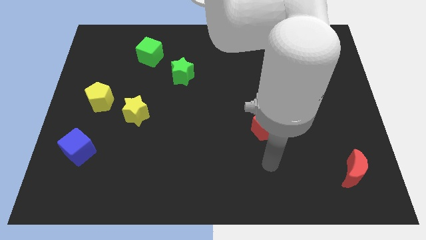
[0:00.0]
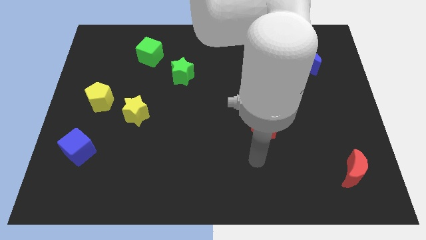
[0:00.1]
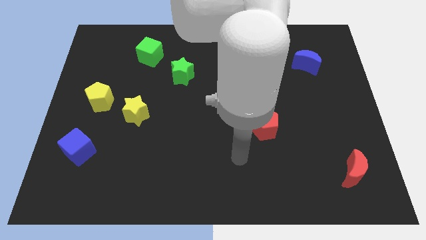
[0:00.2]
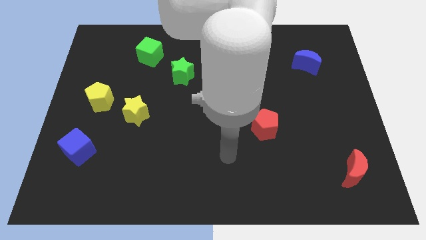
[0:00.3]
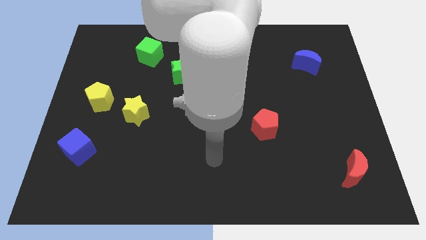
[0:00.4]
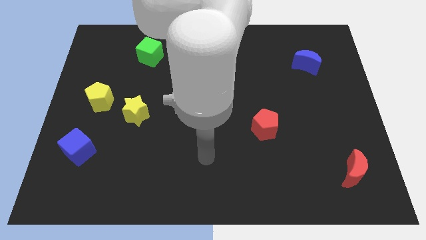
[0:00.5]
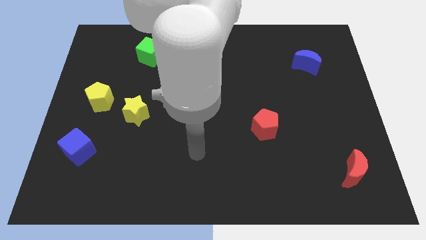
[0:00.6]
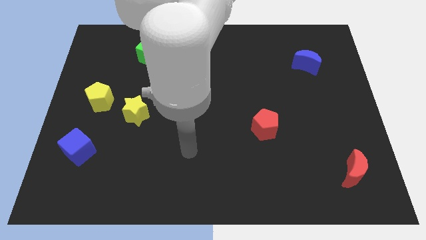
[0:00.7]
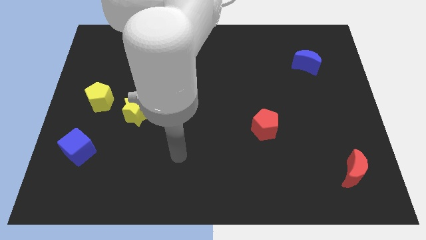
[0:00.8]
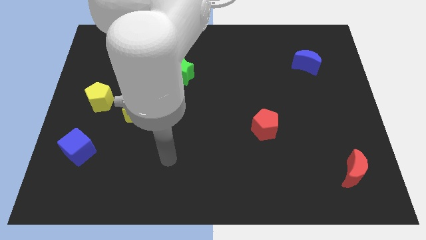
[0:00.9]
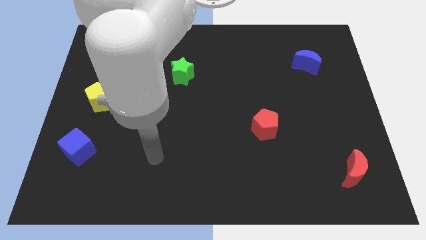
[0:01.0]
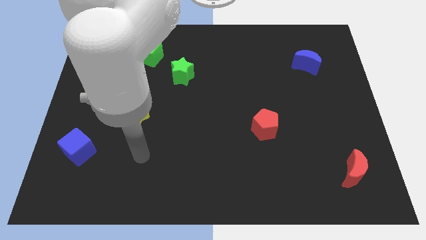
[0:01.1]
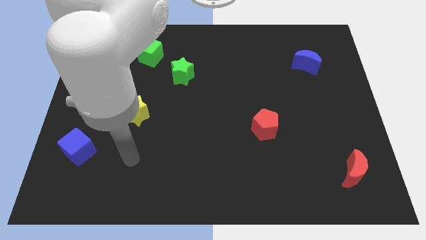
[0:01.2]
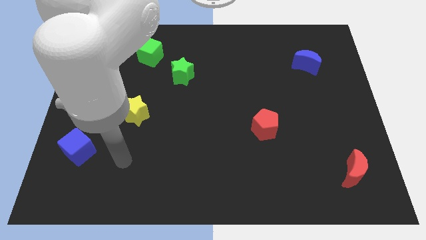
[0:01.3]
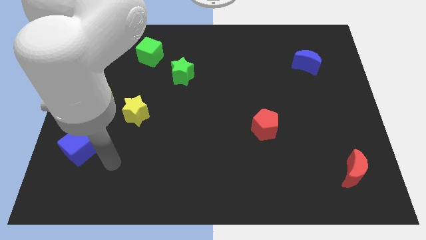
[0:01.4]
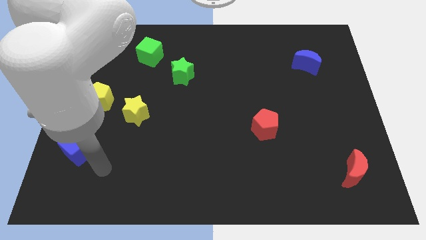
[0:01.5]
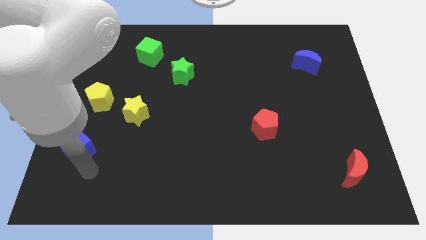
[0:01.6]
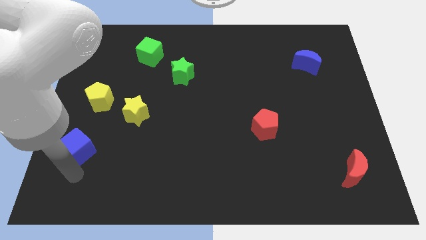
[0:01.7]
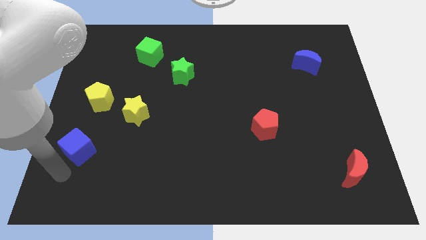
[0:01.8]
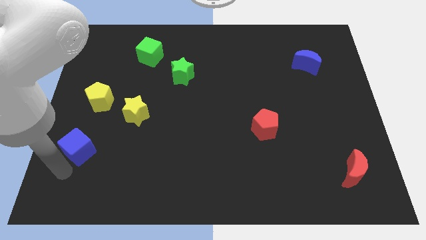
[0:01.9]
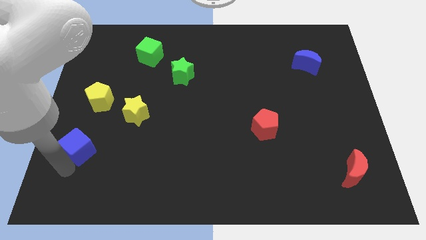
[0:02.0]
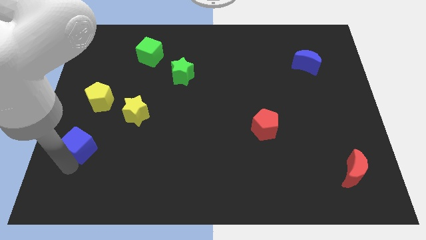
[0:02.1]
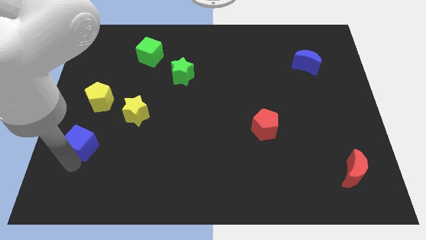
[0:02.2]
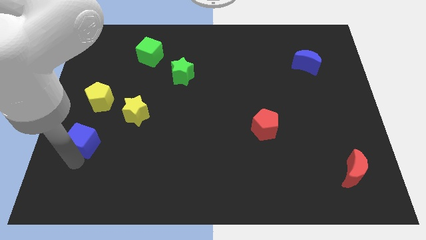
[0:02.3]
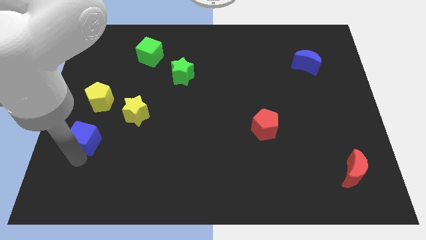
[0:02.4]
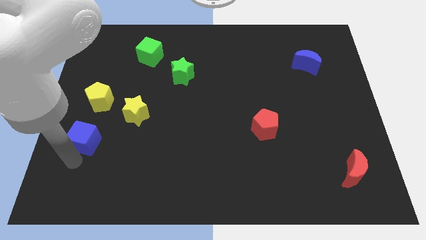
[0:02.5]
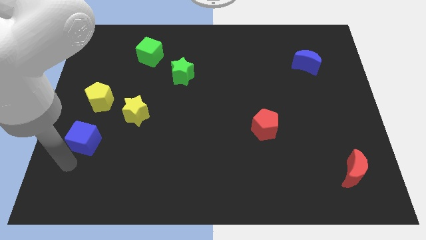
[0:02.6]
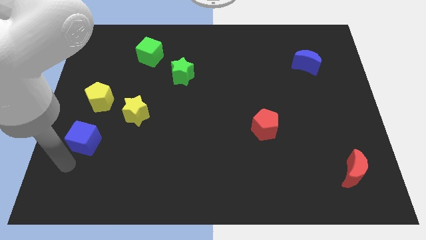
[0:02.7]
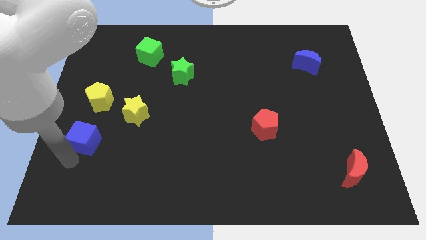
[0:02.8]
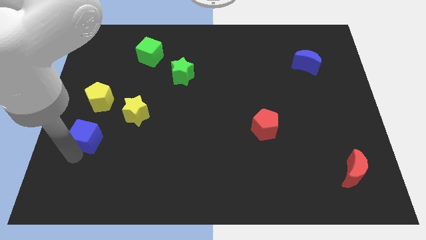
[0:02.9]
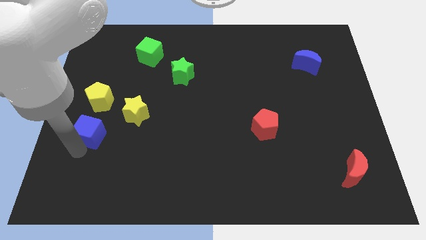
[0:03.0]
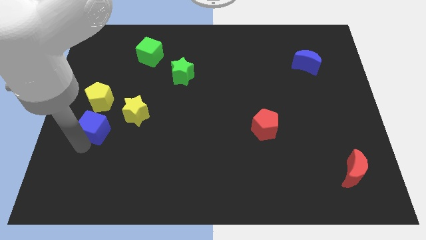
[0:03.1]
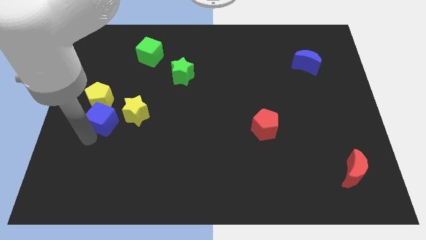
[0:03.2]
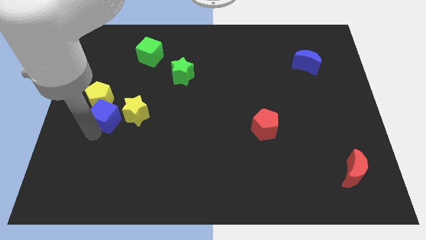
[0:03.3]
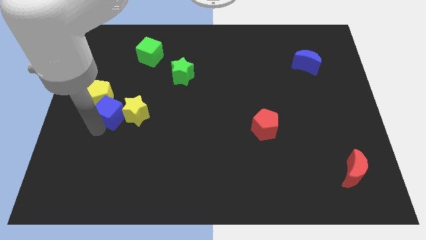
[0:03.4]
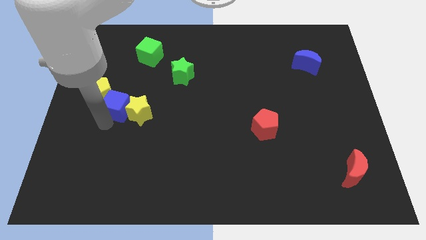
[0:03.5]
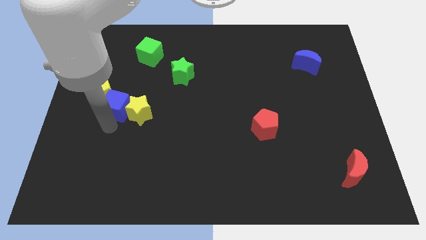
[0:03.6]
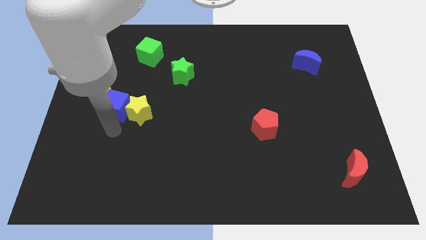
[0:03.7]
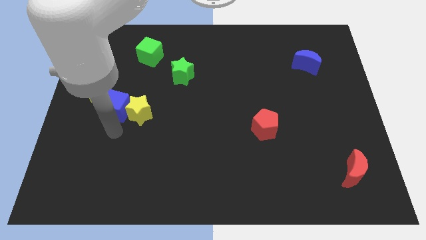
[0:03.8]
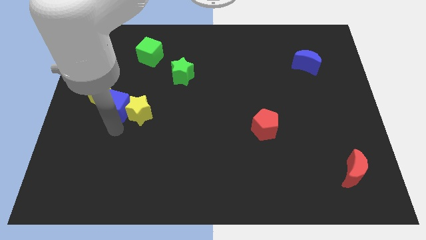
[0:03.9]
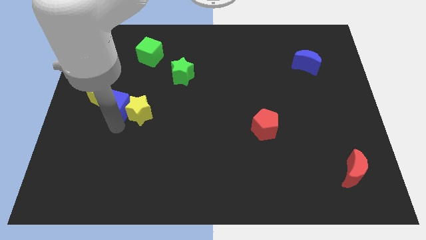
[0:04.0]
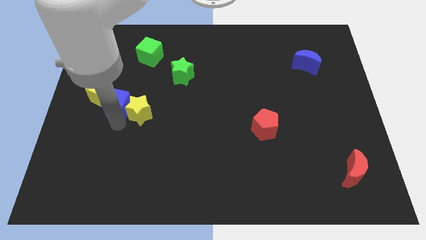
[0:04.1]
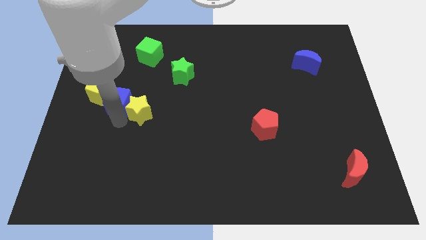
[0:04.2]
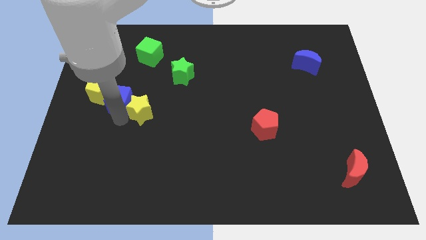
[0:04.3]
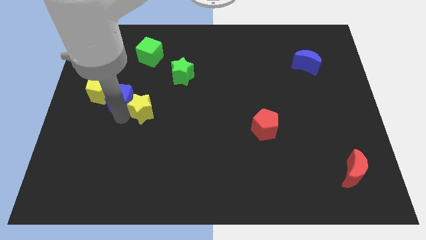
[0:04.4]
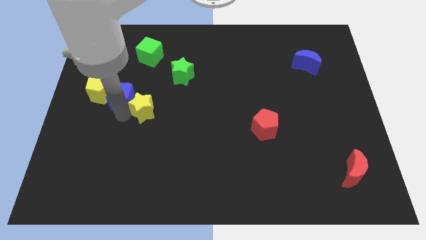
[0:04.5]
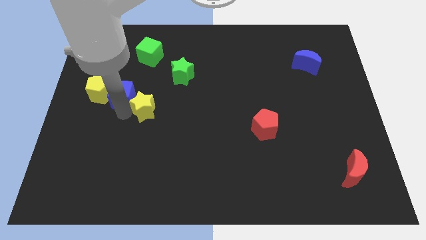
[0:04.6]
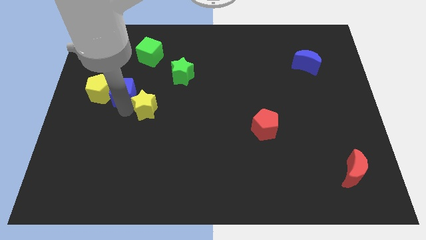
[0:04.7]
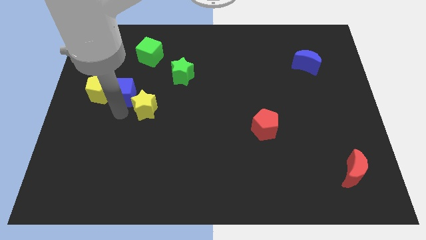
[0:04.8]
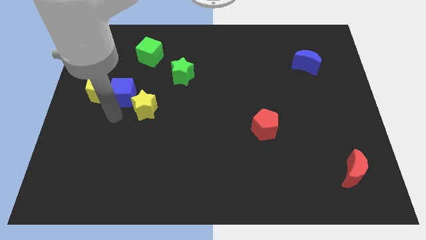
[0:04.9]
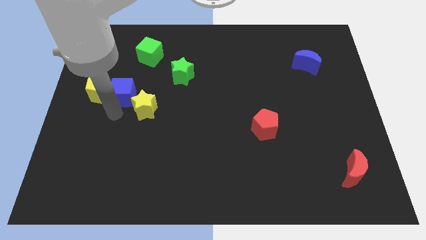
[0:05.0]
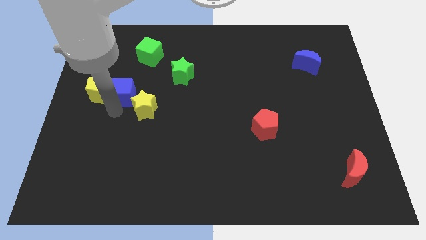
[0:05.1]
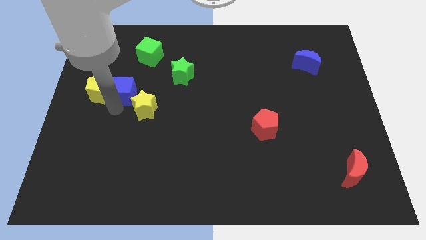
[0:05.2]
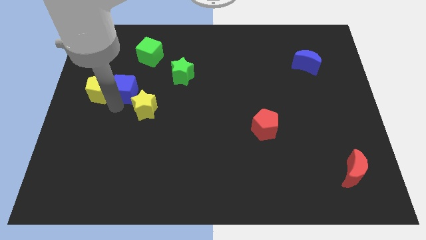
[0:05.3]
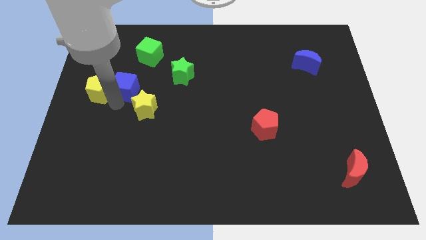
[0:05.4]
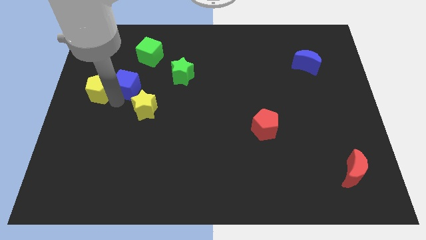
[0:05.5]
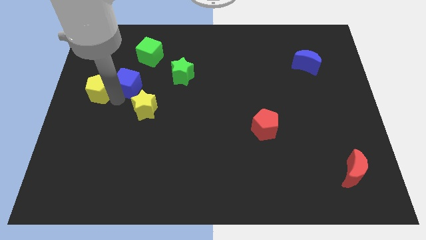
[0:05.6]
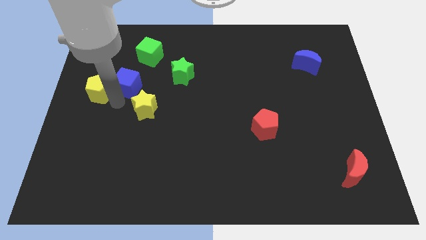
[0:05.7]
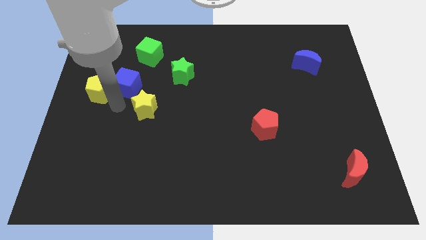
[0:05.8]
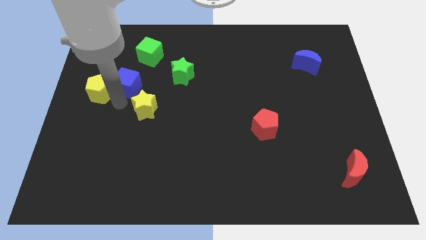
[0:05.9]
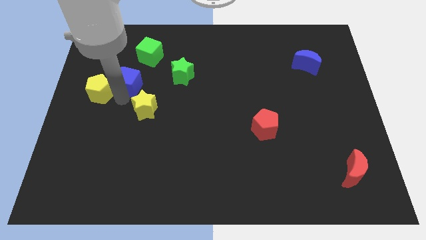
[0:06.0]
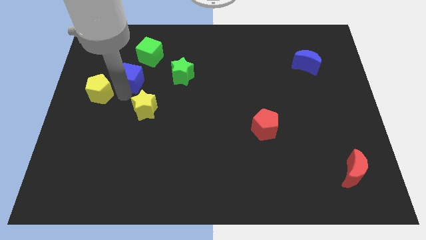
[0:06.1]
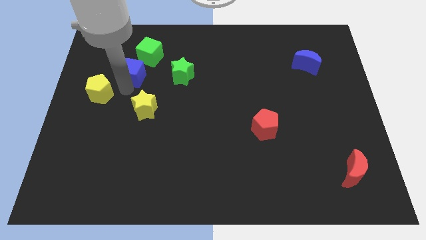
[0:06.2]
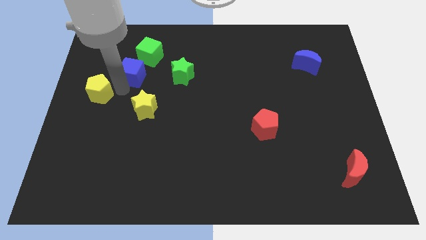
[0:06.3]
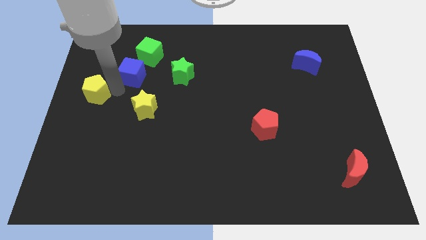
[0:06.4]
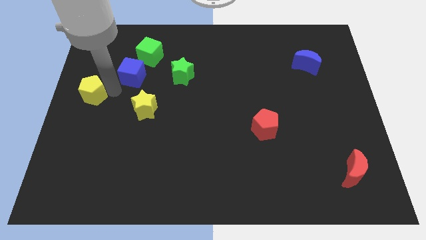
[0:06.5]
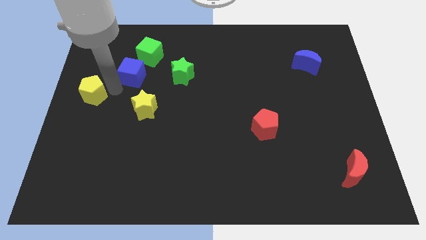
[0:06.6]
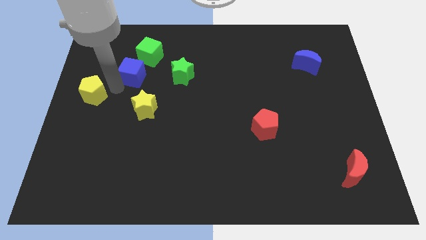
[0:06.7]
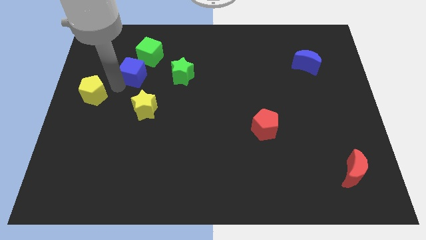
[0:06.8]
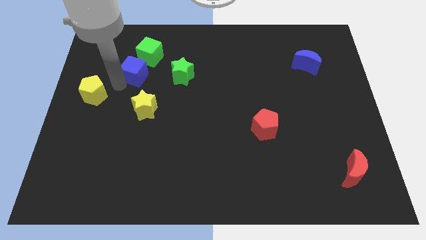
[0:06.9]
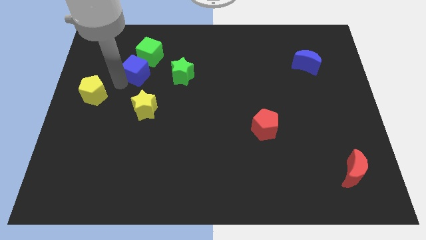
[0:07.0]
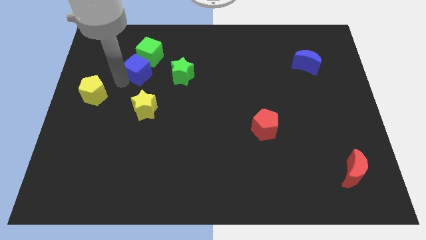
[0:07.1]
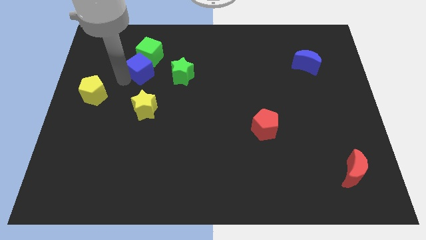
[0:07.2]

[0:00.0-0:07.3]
put the blue cube close to the green cube

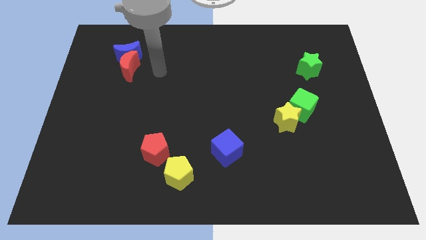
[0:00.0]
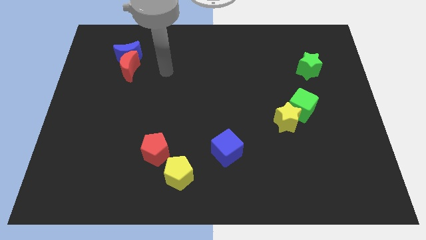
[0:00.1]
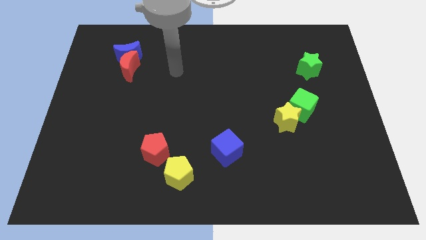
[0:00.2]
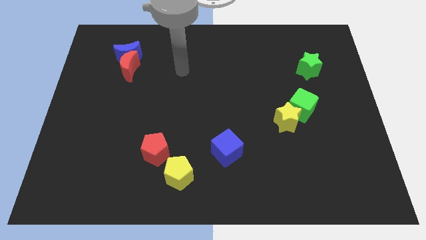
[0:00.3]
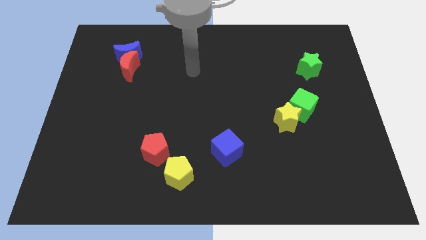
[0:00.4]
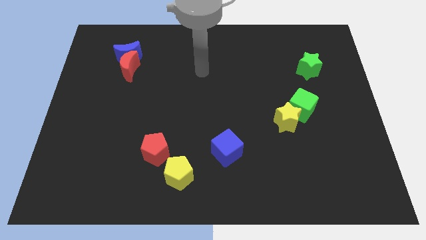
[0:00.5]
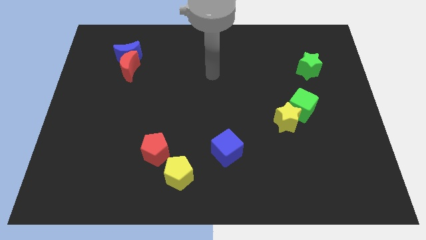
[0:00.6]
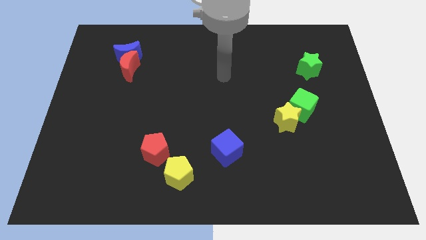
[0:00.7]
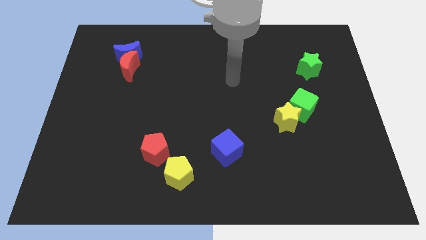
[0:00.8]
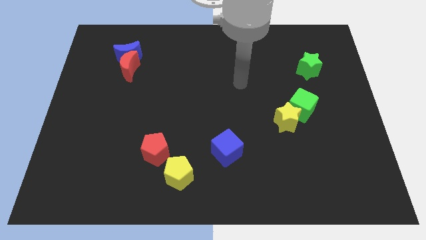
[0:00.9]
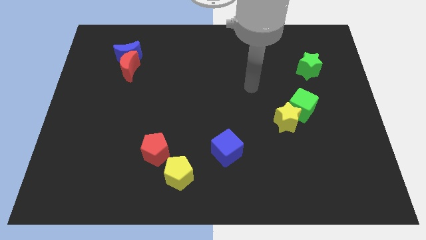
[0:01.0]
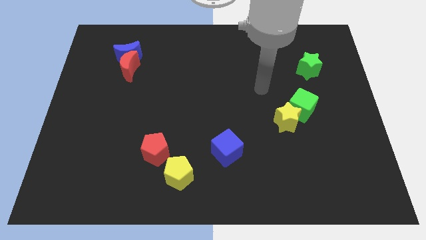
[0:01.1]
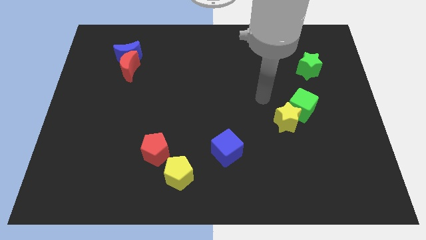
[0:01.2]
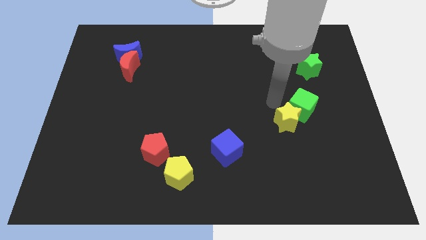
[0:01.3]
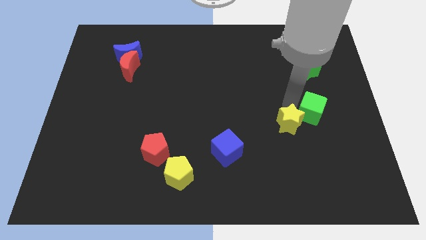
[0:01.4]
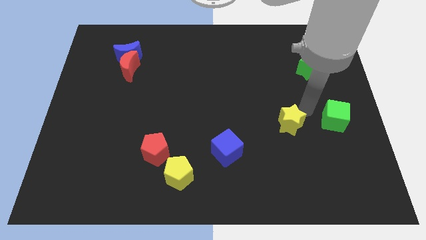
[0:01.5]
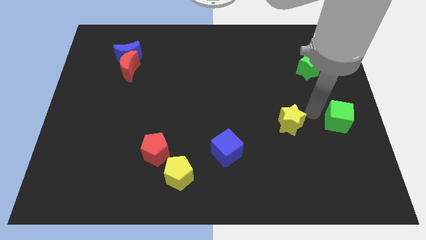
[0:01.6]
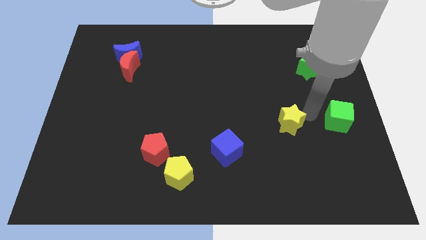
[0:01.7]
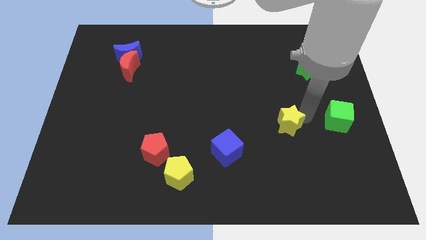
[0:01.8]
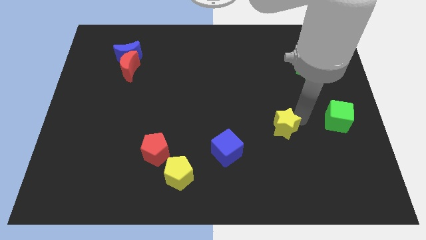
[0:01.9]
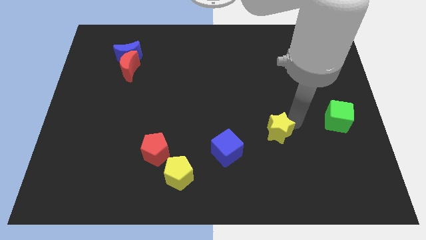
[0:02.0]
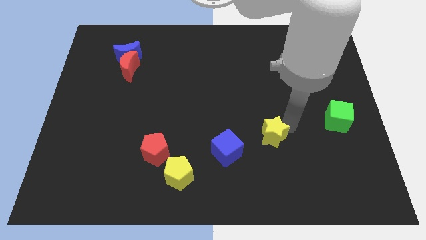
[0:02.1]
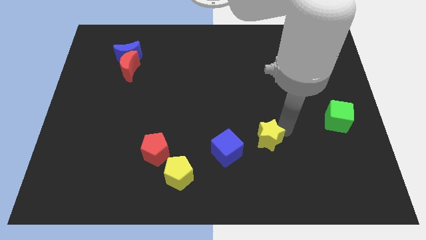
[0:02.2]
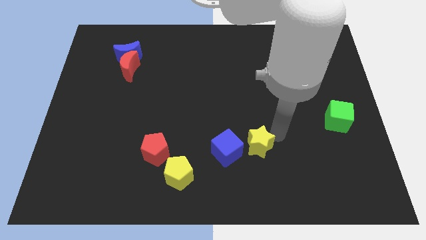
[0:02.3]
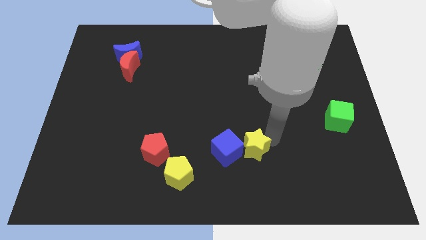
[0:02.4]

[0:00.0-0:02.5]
put the yellow star to the blue cube
